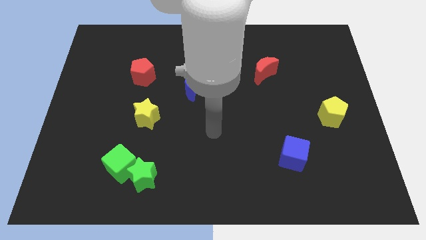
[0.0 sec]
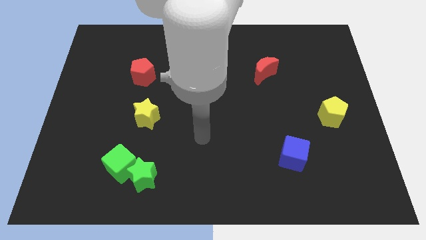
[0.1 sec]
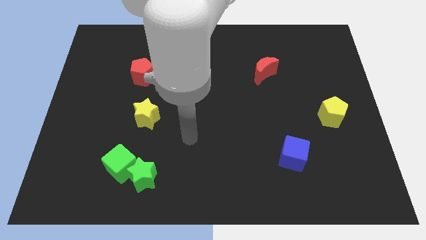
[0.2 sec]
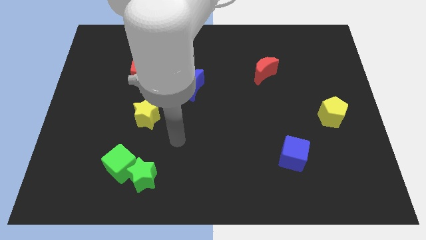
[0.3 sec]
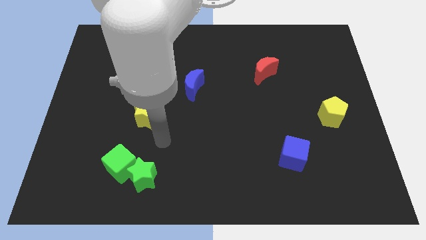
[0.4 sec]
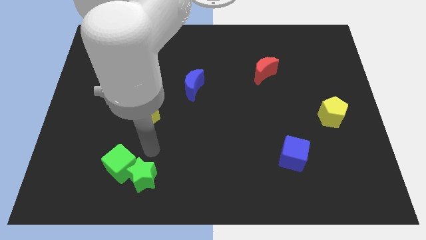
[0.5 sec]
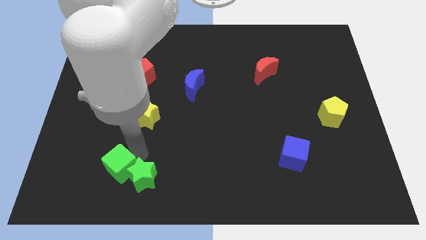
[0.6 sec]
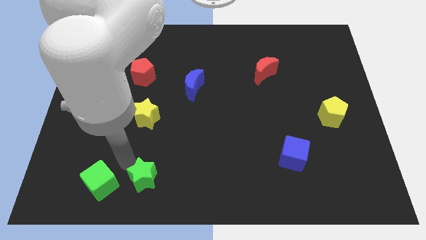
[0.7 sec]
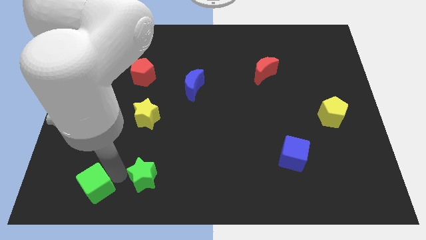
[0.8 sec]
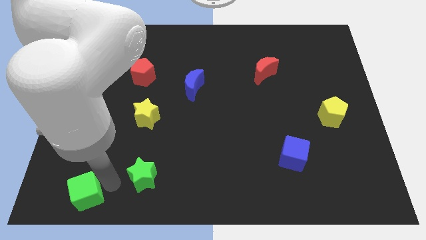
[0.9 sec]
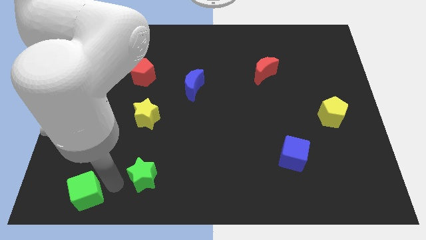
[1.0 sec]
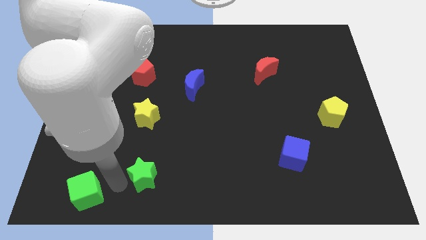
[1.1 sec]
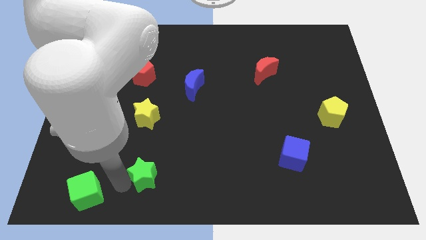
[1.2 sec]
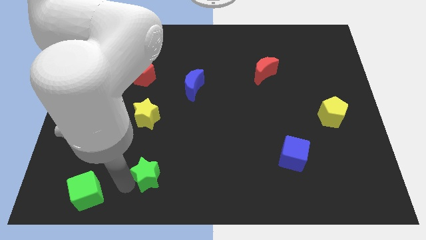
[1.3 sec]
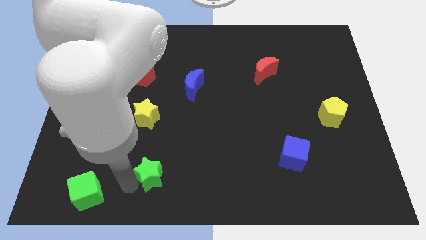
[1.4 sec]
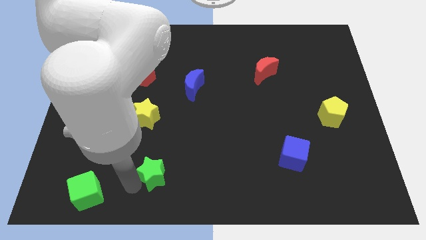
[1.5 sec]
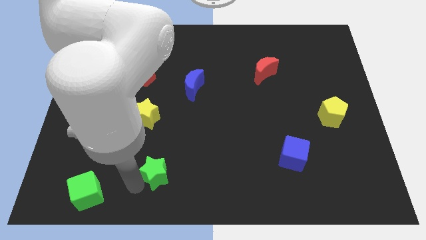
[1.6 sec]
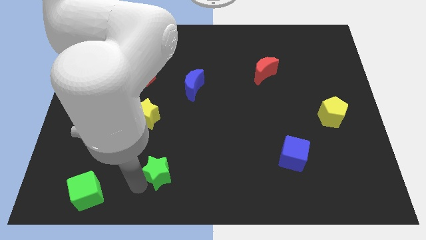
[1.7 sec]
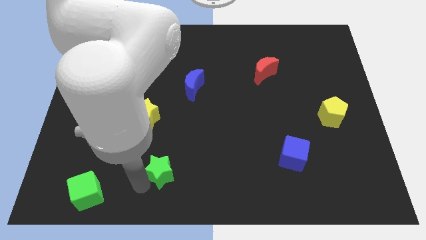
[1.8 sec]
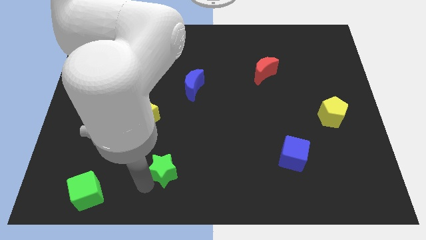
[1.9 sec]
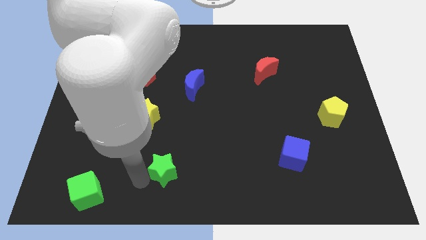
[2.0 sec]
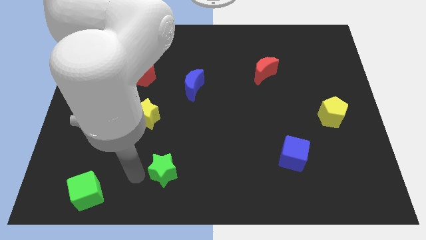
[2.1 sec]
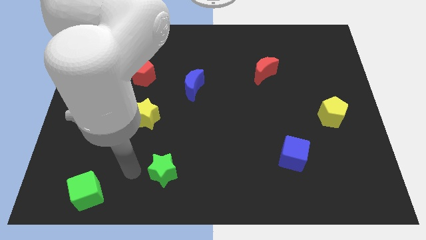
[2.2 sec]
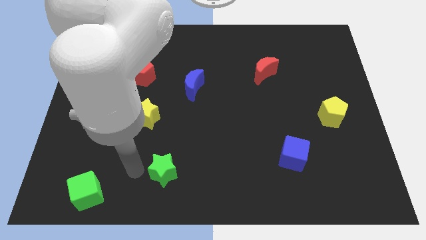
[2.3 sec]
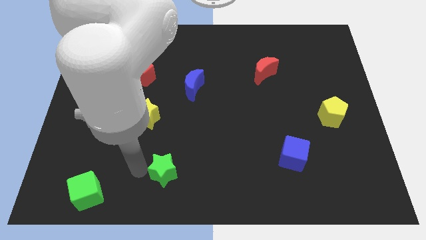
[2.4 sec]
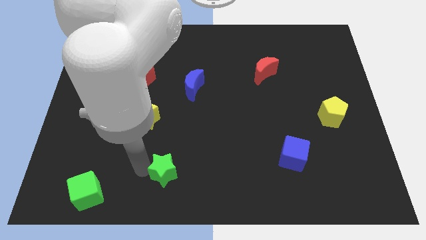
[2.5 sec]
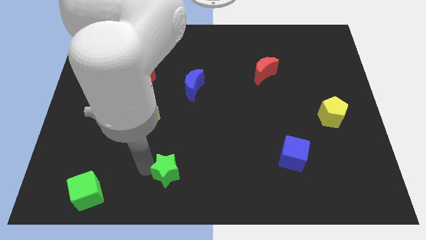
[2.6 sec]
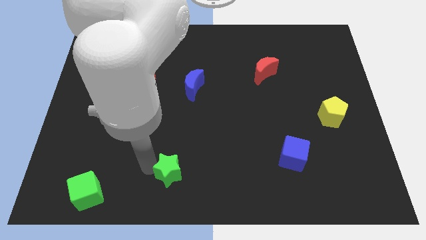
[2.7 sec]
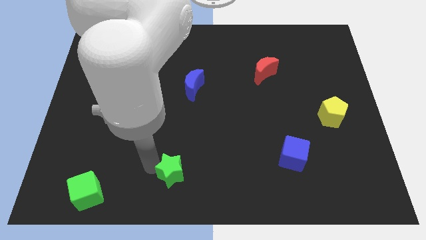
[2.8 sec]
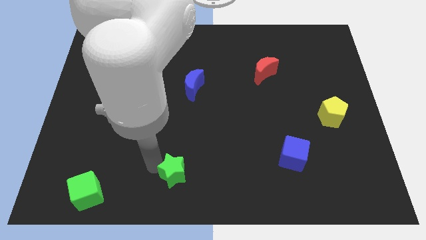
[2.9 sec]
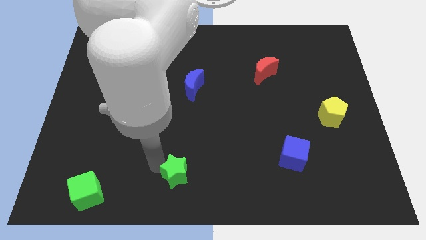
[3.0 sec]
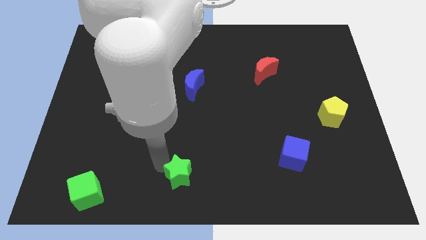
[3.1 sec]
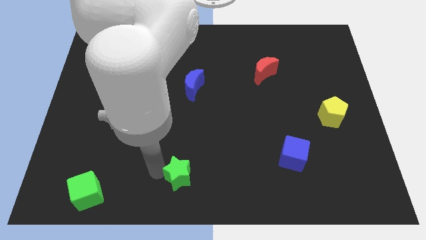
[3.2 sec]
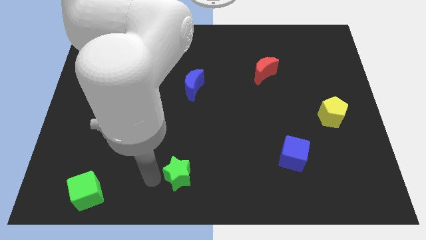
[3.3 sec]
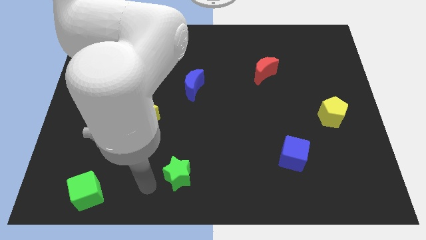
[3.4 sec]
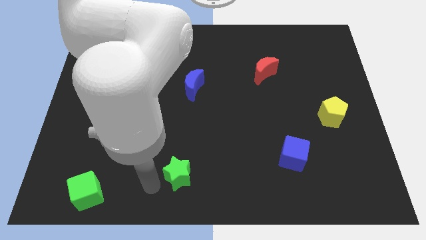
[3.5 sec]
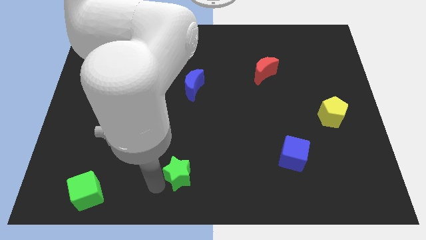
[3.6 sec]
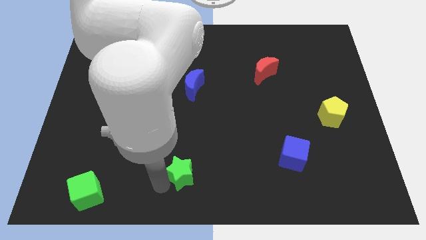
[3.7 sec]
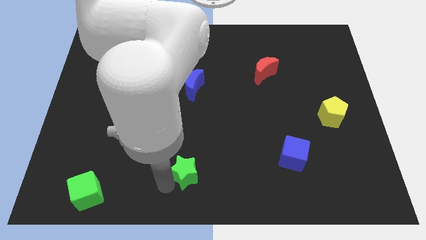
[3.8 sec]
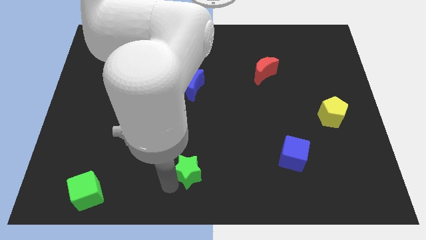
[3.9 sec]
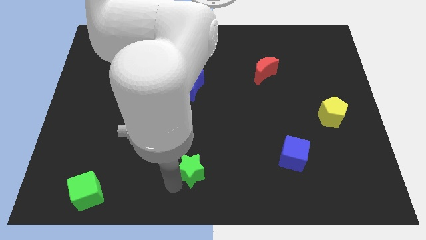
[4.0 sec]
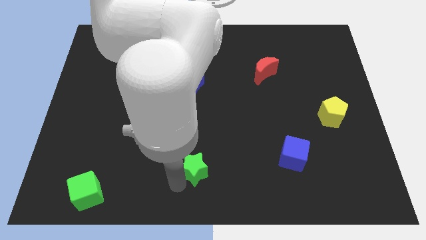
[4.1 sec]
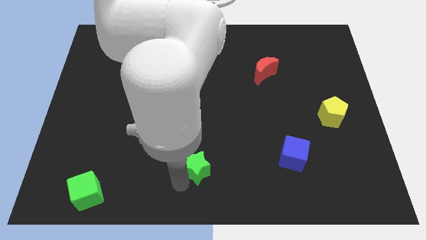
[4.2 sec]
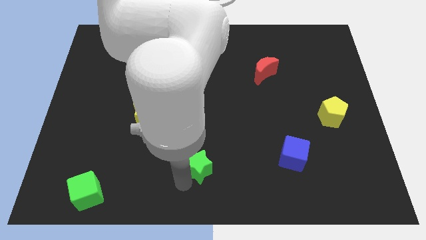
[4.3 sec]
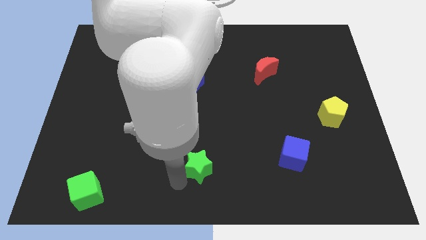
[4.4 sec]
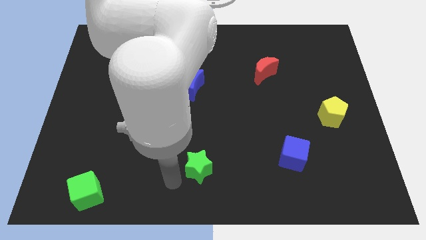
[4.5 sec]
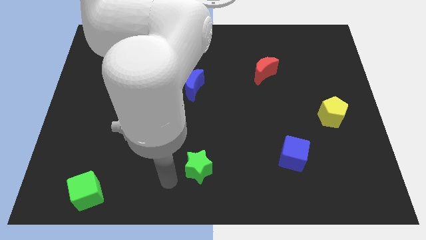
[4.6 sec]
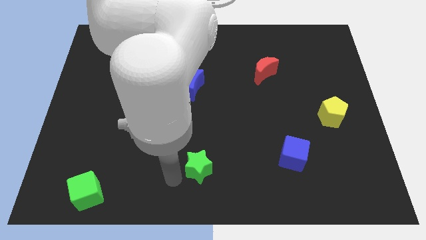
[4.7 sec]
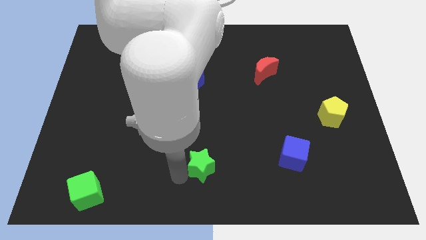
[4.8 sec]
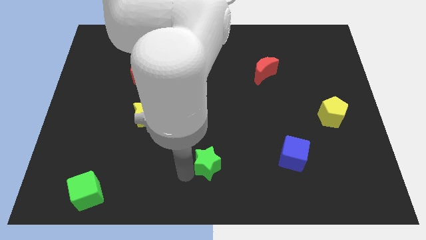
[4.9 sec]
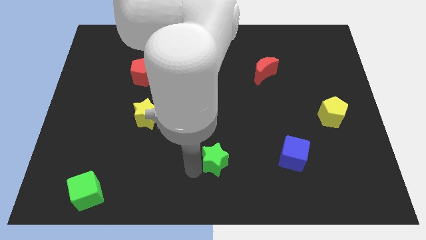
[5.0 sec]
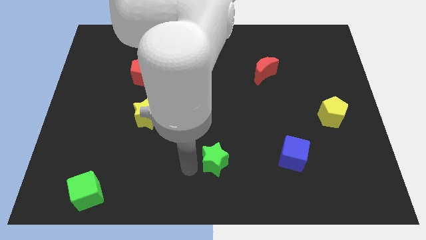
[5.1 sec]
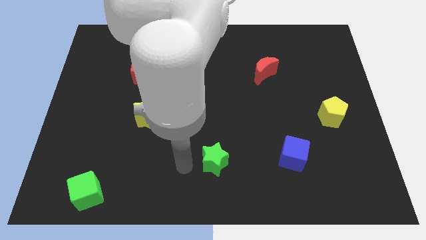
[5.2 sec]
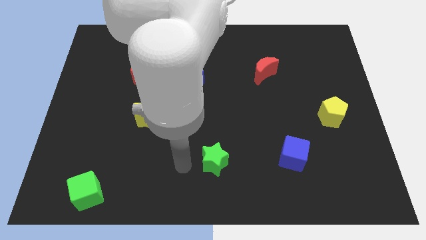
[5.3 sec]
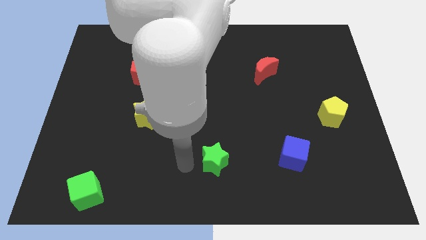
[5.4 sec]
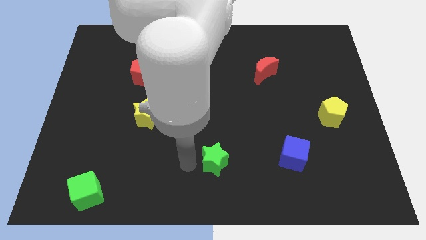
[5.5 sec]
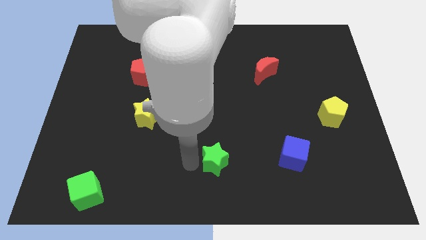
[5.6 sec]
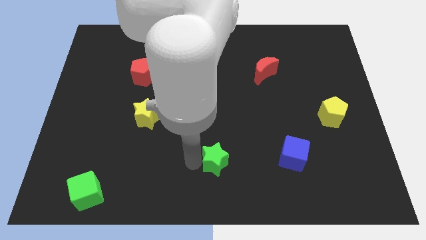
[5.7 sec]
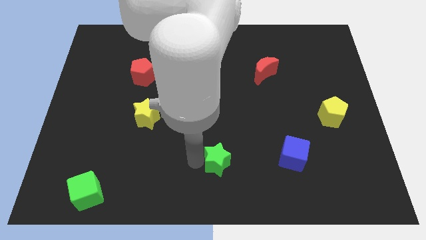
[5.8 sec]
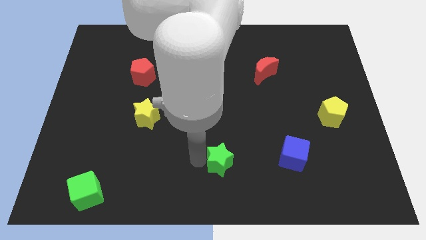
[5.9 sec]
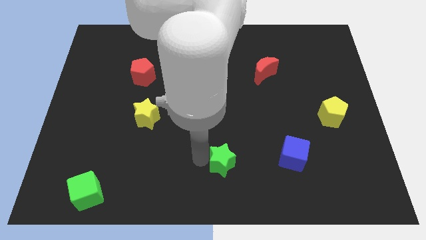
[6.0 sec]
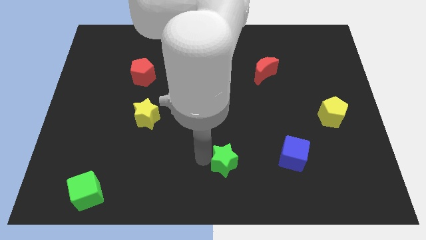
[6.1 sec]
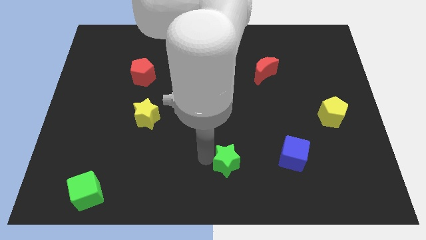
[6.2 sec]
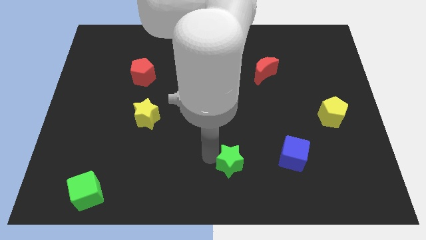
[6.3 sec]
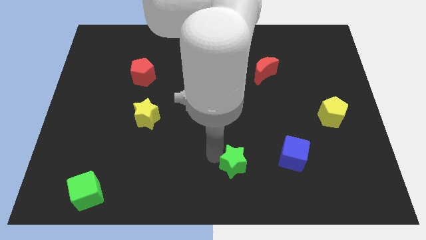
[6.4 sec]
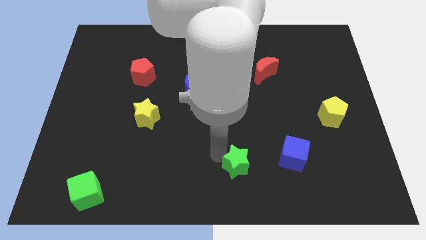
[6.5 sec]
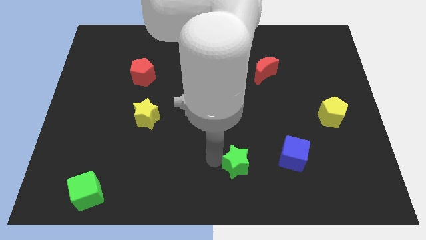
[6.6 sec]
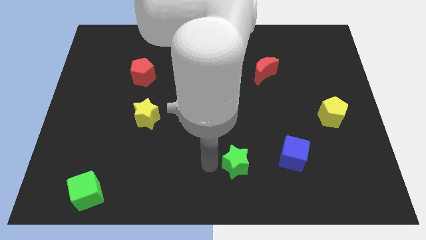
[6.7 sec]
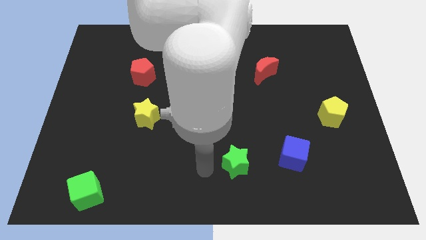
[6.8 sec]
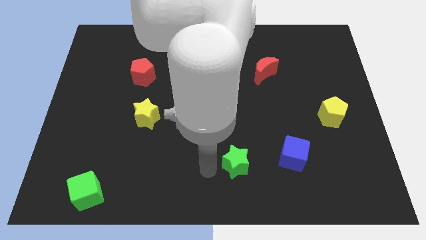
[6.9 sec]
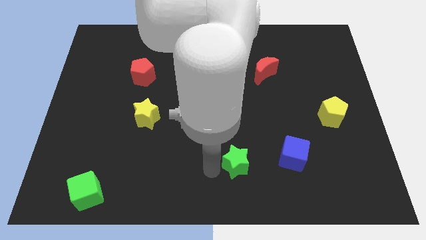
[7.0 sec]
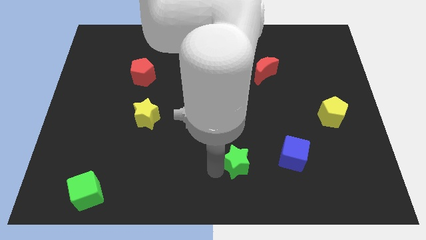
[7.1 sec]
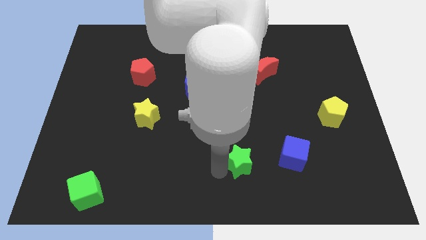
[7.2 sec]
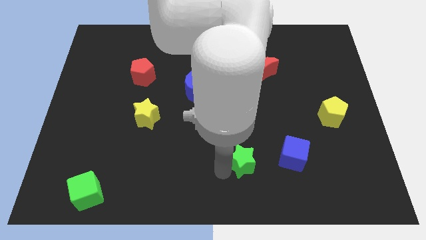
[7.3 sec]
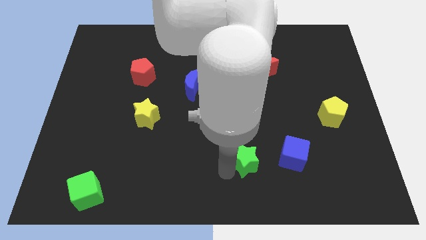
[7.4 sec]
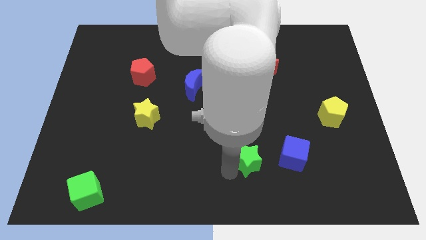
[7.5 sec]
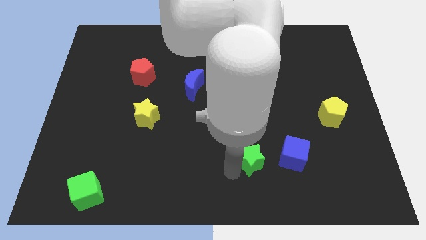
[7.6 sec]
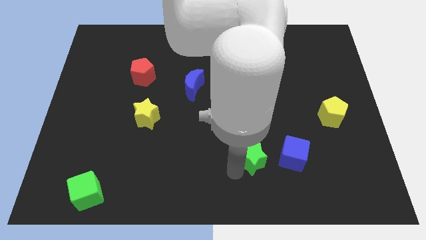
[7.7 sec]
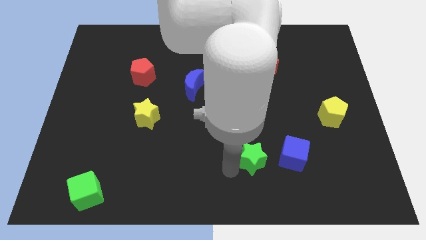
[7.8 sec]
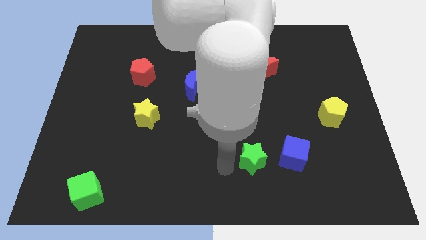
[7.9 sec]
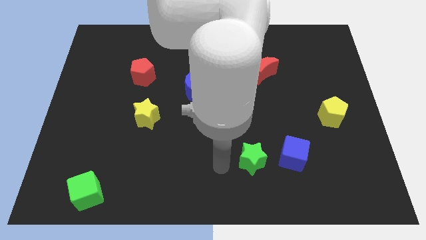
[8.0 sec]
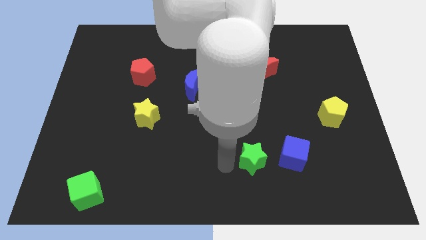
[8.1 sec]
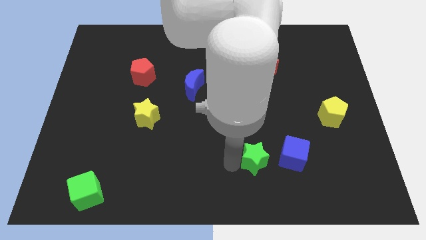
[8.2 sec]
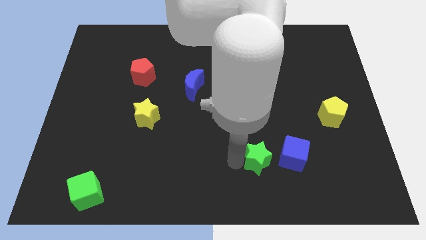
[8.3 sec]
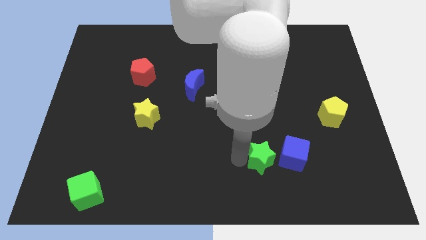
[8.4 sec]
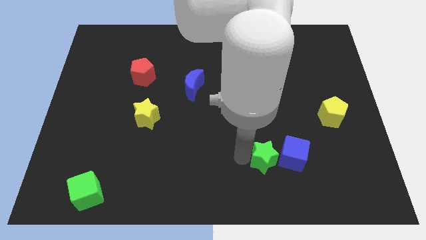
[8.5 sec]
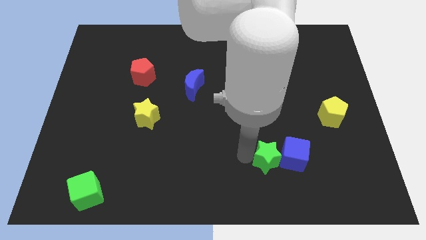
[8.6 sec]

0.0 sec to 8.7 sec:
put the green star next to the blue cube
